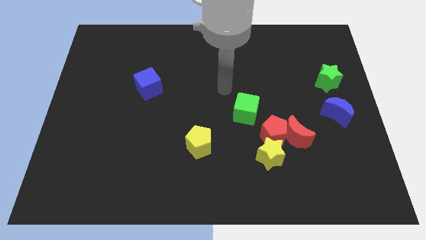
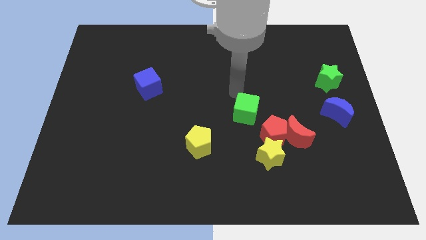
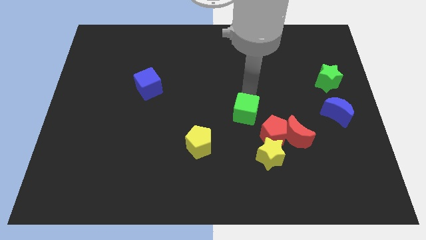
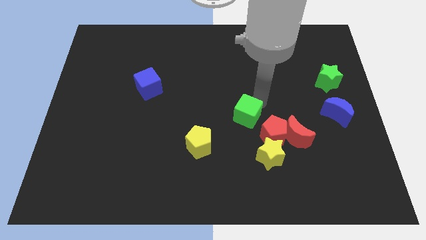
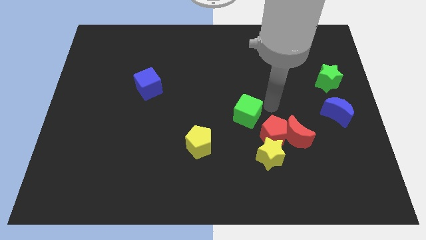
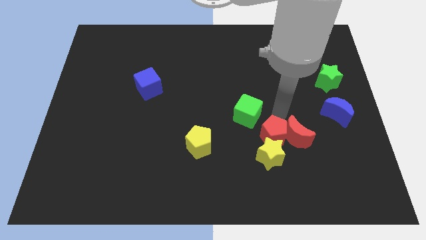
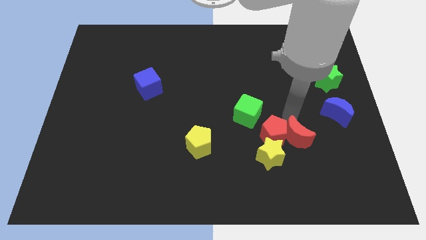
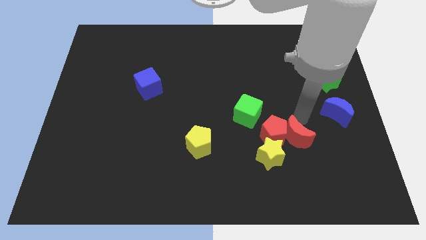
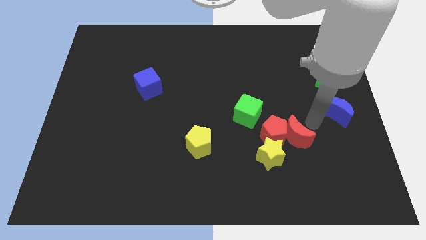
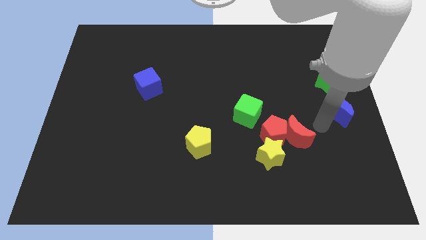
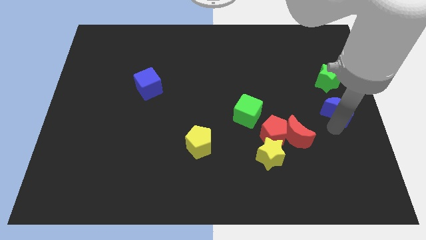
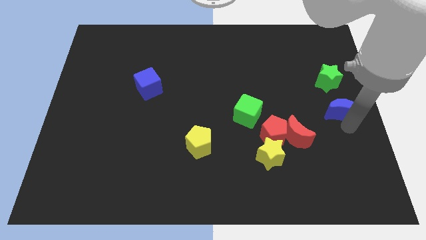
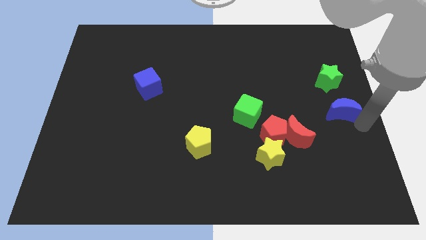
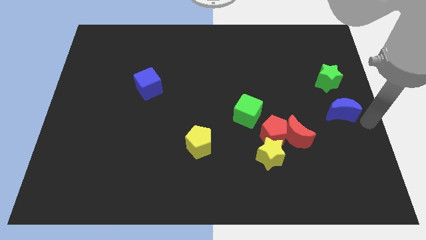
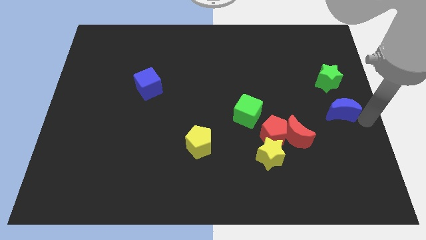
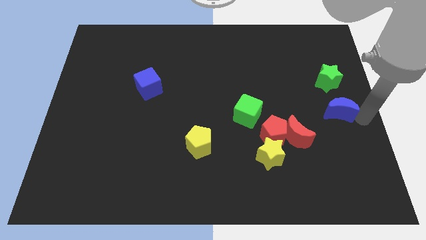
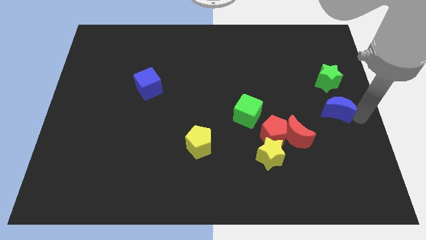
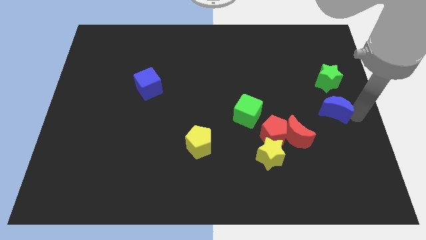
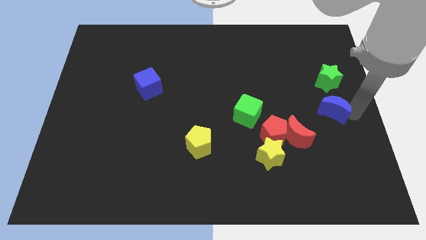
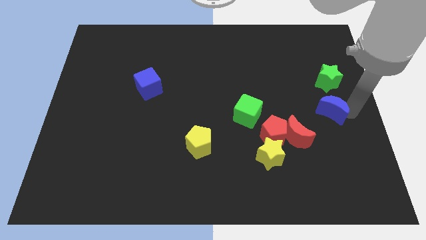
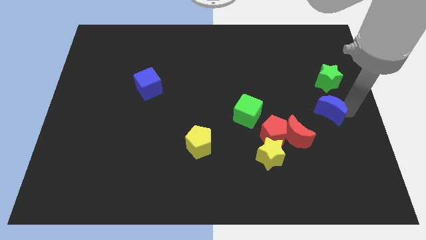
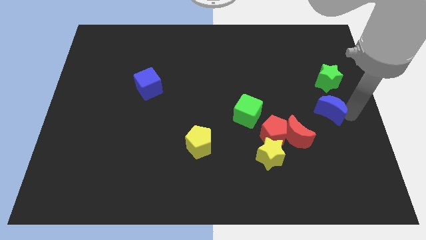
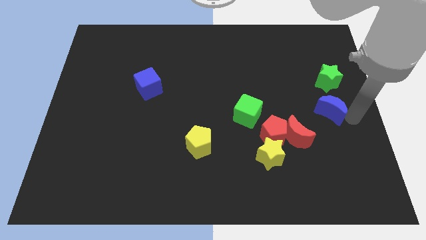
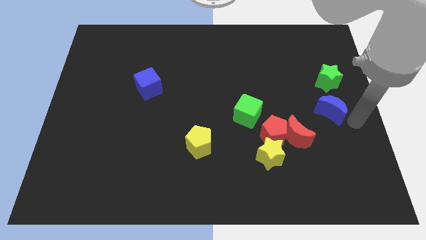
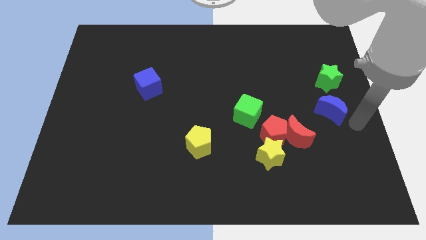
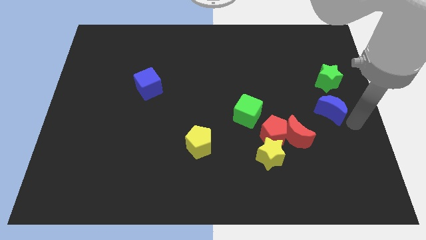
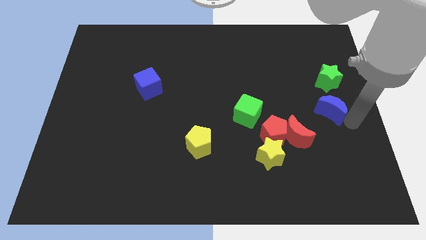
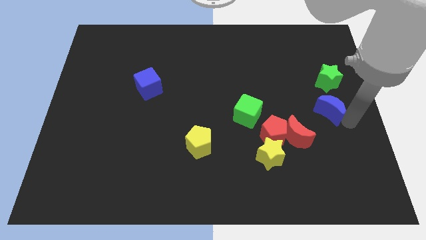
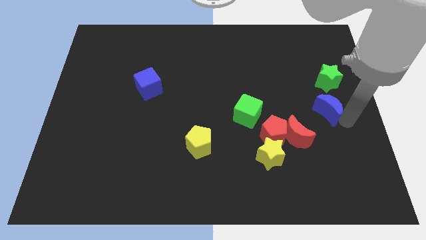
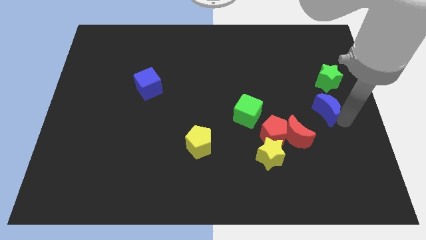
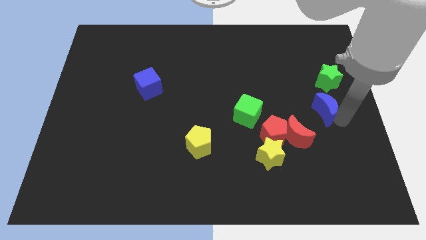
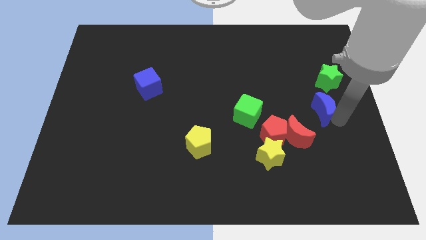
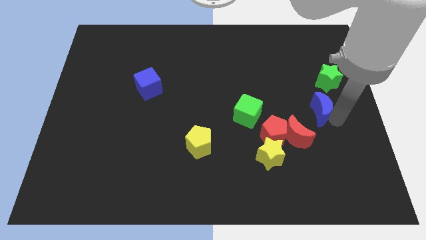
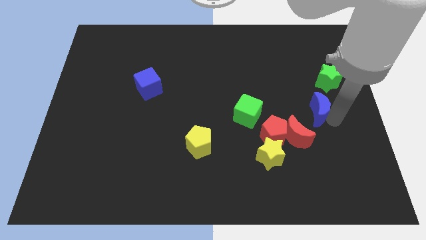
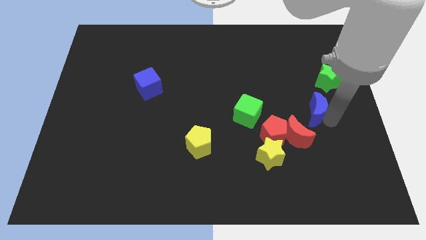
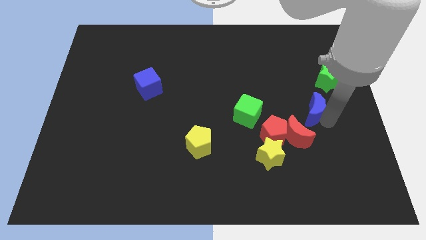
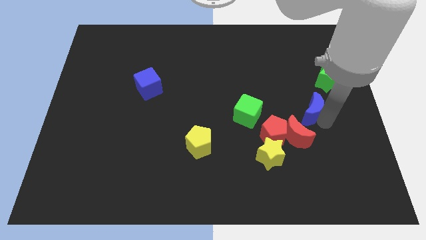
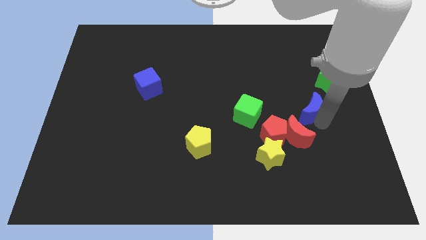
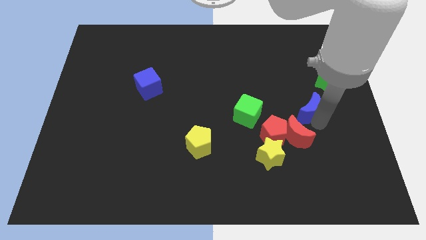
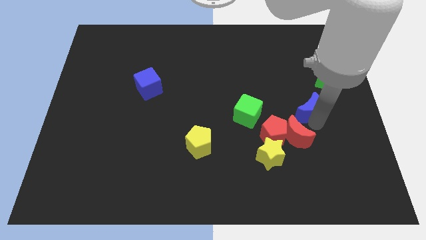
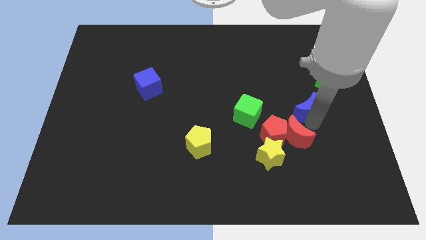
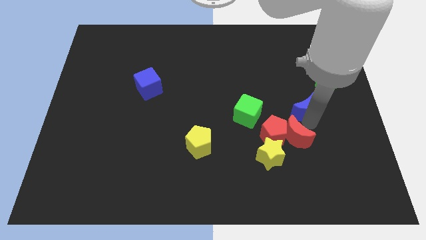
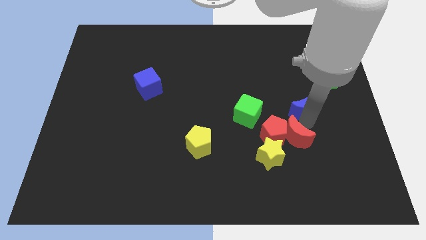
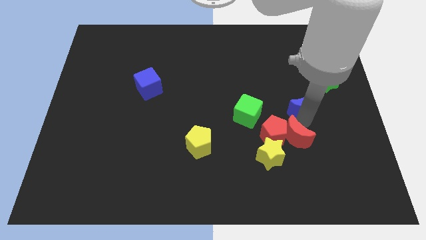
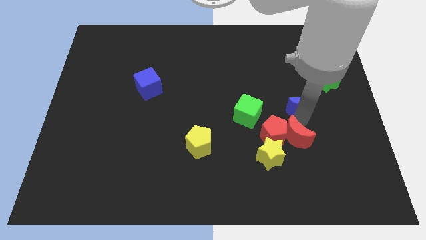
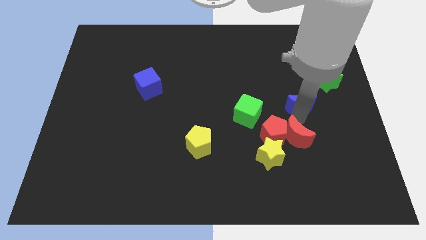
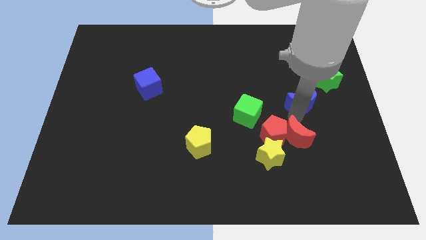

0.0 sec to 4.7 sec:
slide the blue moon diagonally up and left a little

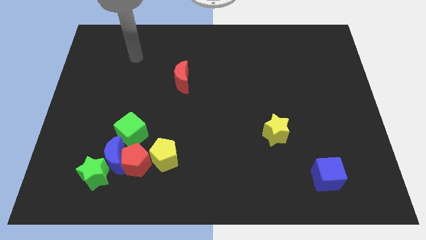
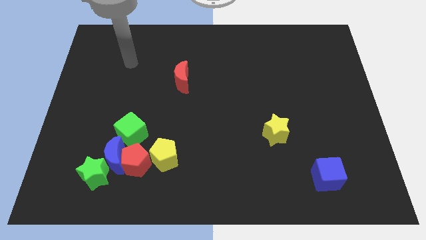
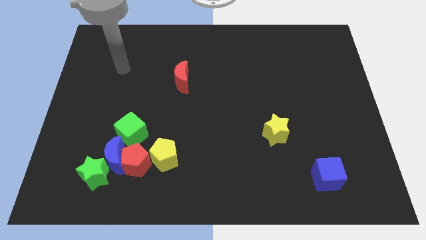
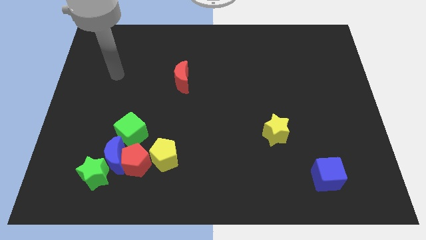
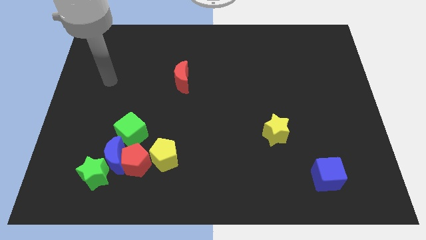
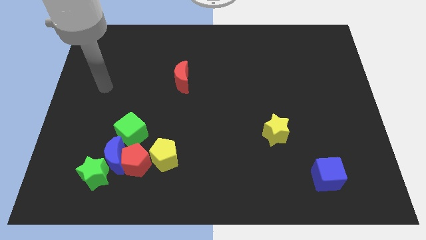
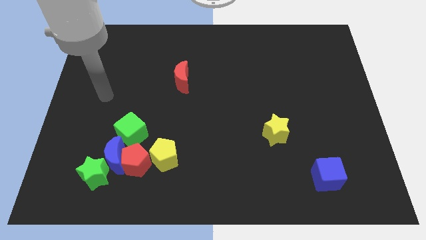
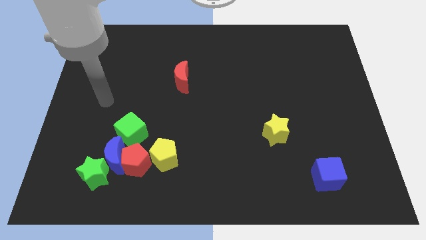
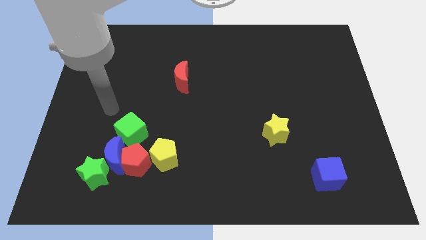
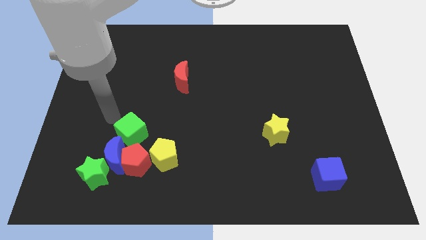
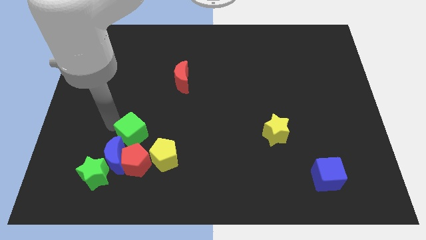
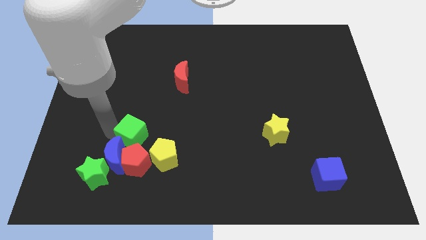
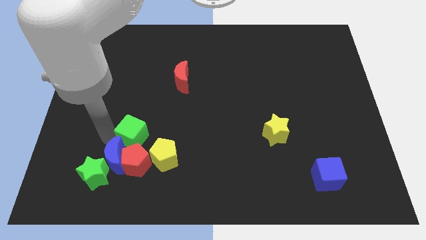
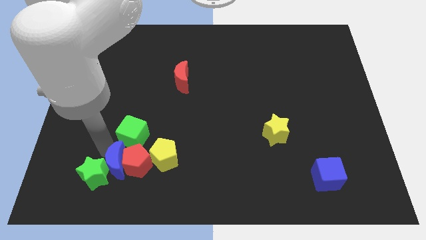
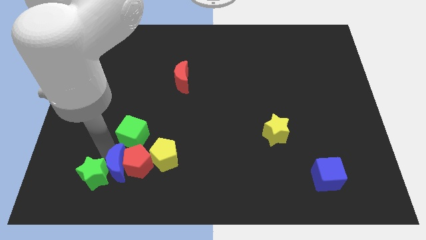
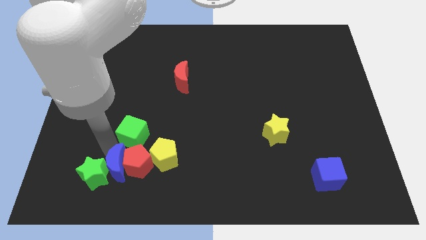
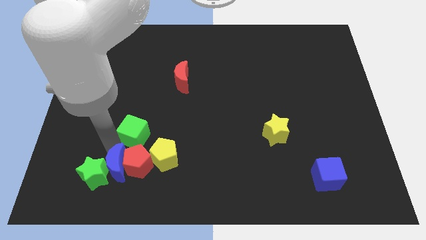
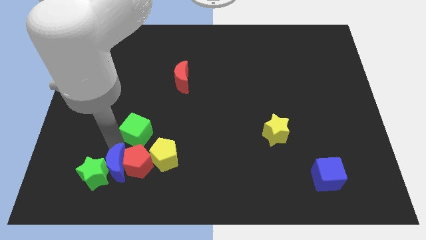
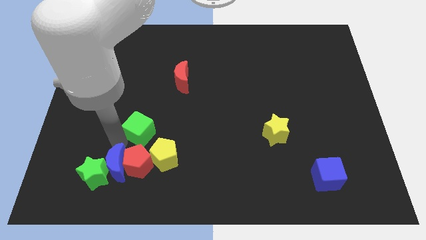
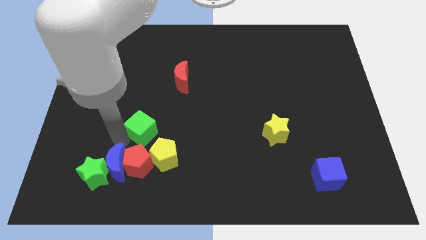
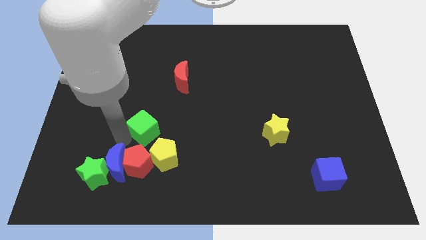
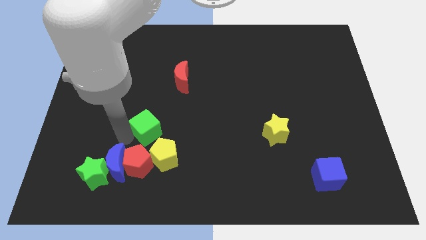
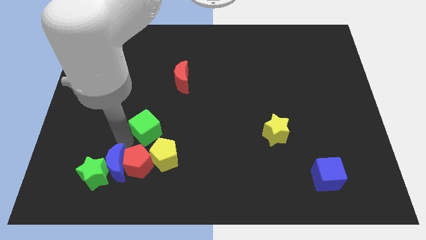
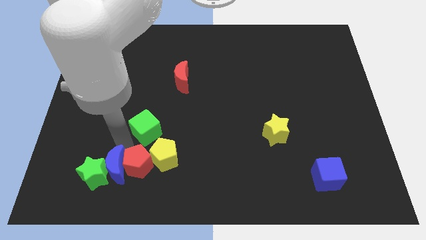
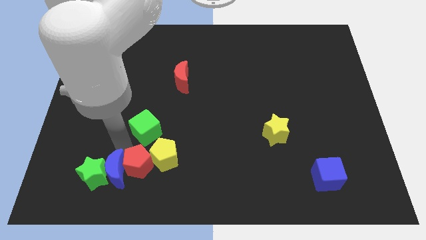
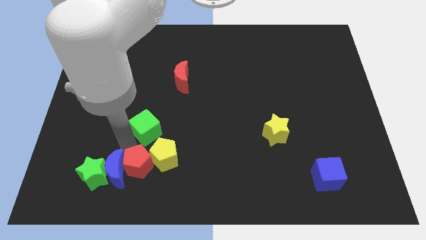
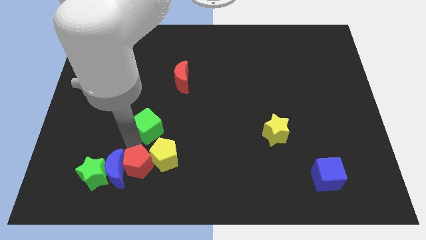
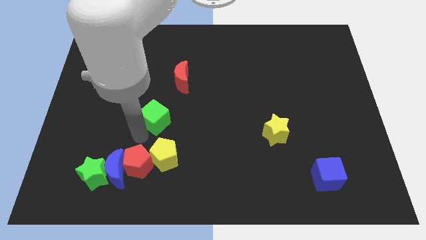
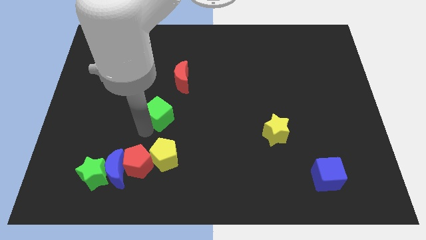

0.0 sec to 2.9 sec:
slide the green cube somewhat upwards and then right

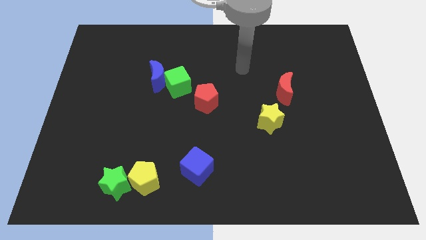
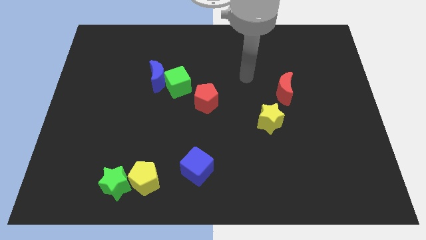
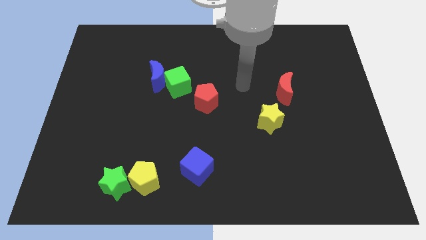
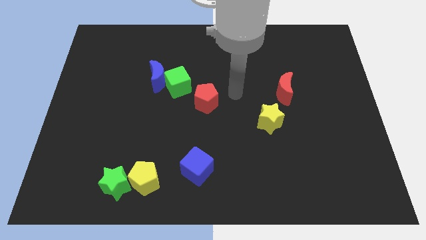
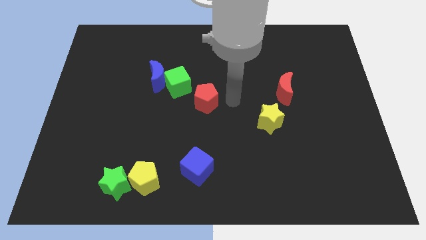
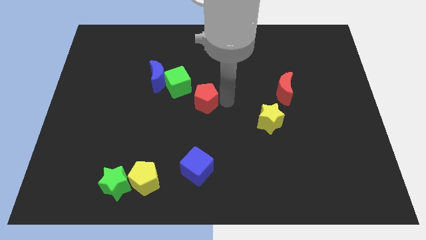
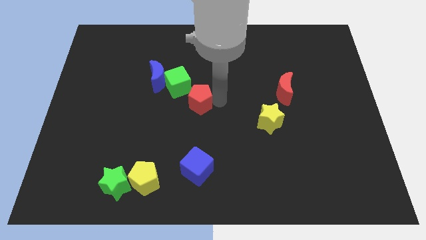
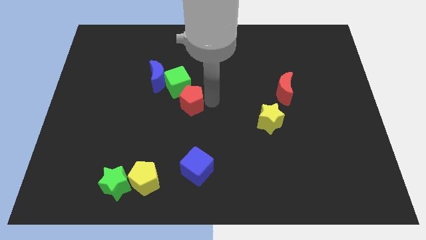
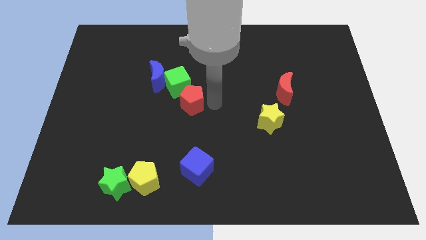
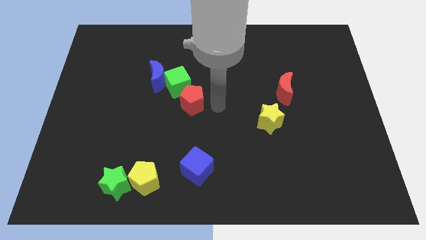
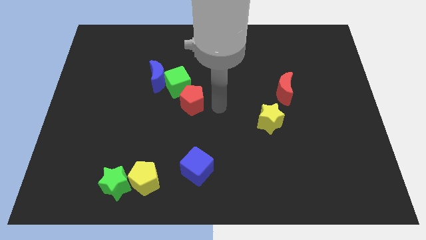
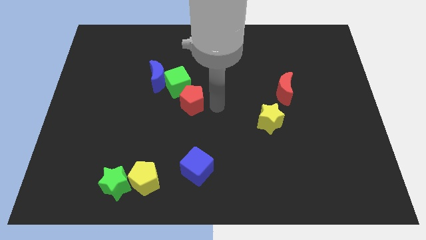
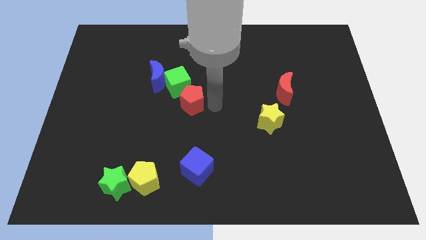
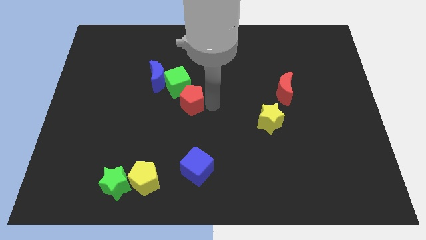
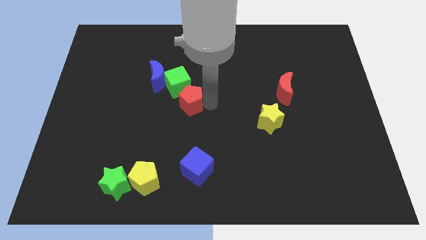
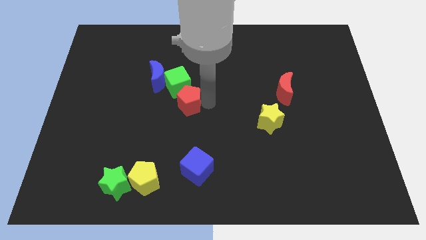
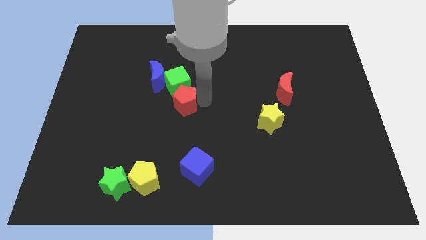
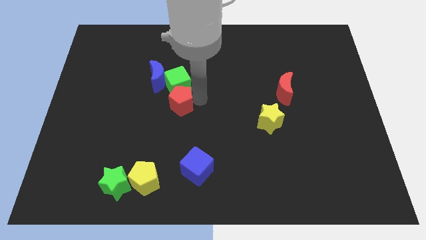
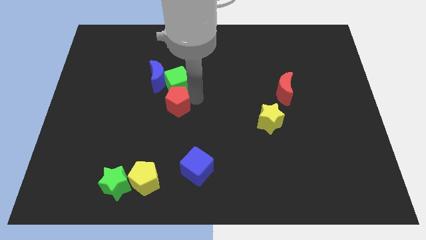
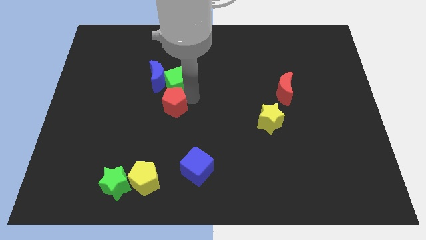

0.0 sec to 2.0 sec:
slightly slide the red pentagon left
